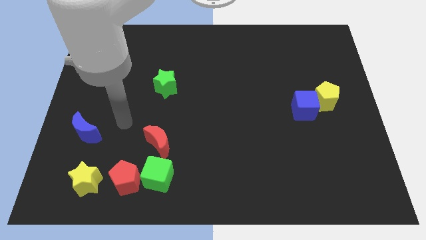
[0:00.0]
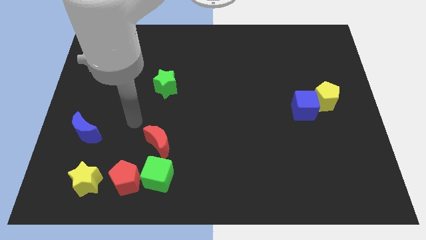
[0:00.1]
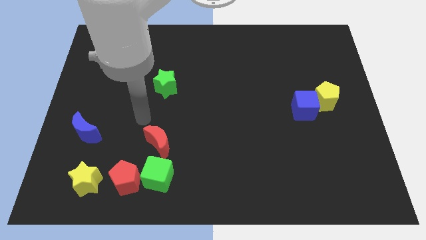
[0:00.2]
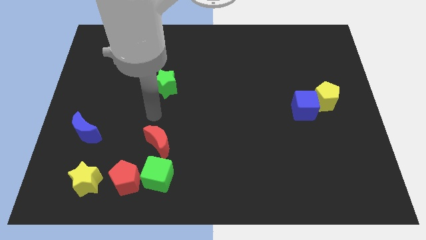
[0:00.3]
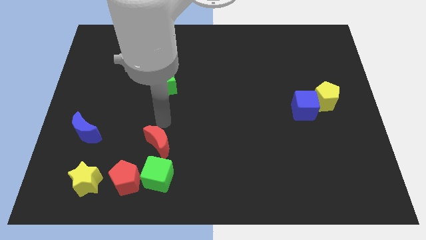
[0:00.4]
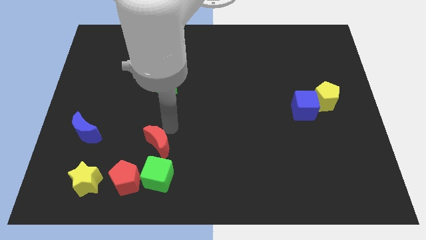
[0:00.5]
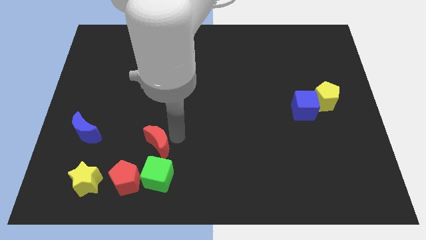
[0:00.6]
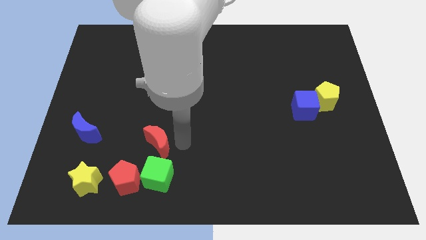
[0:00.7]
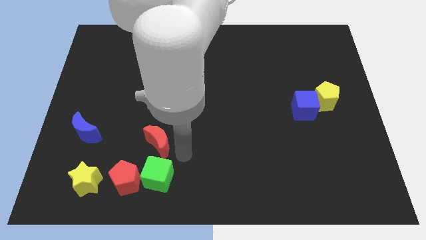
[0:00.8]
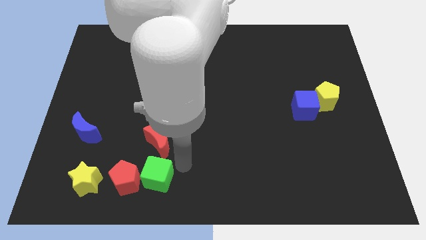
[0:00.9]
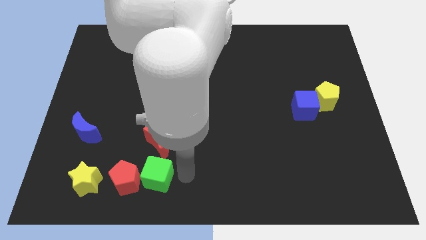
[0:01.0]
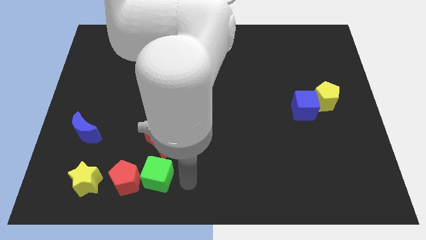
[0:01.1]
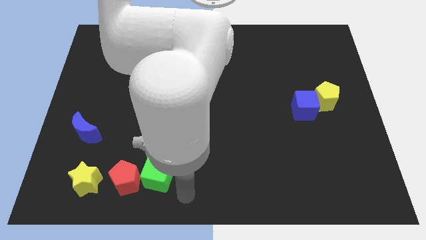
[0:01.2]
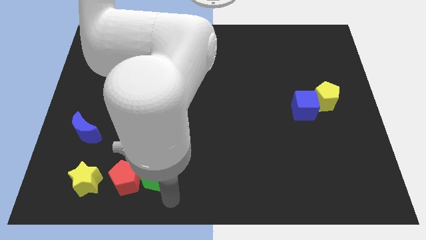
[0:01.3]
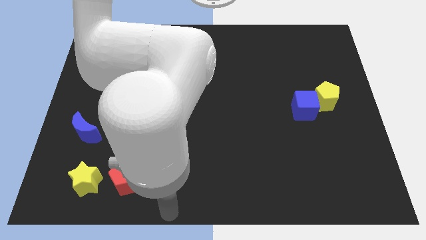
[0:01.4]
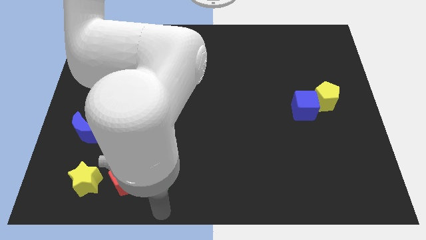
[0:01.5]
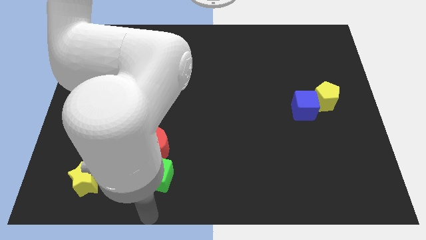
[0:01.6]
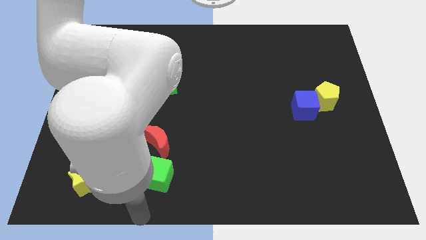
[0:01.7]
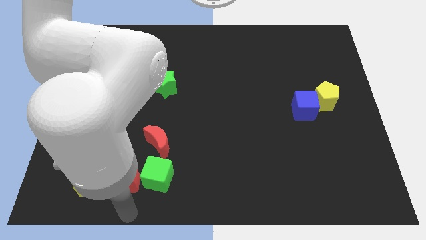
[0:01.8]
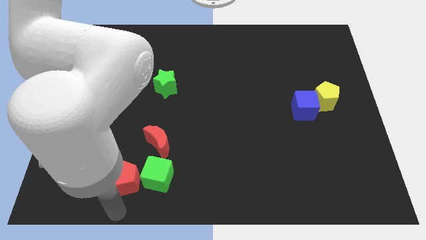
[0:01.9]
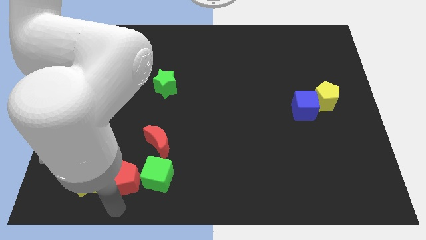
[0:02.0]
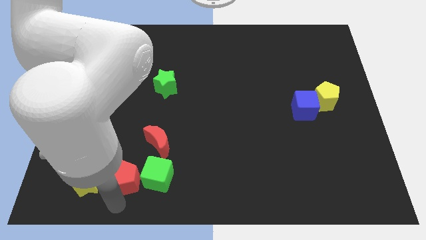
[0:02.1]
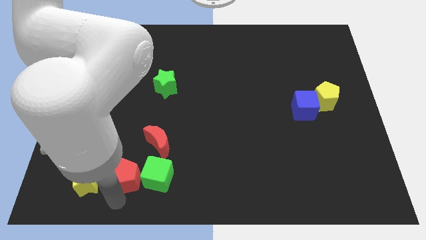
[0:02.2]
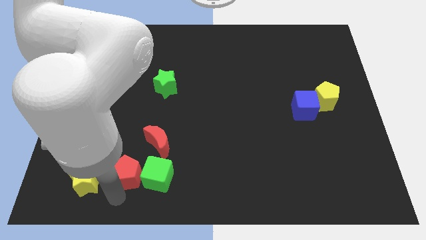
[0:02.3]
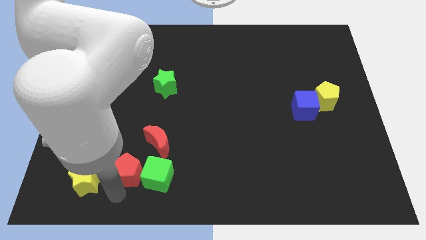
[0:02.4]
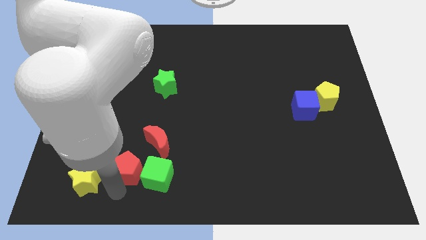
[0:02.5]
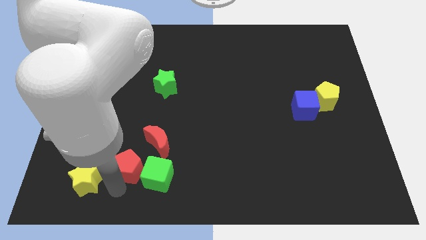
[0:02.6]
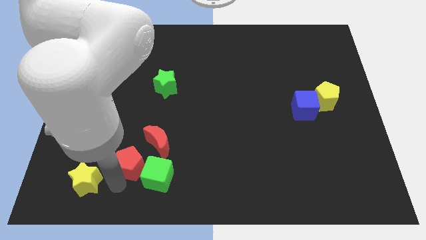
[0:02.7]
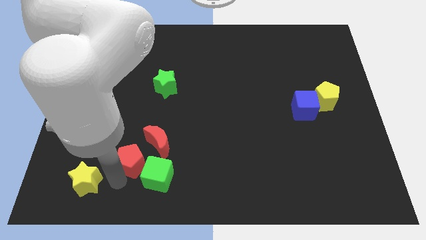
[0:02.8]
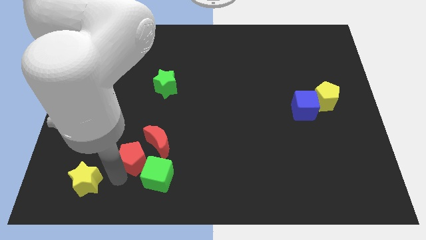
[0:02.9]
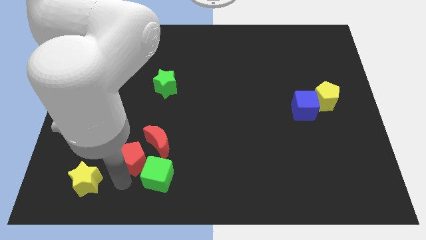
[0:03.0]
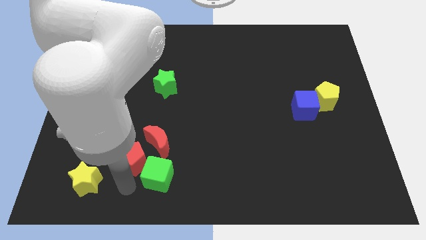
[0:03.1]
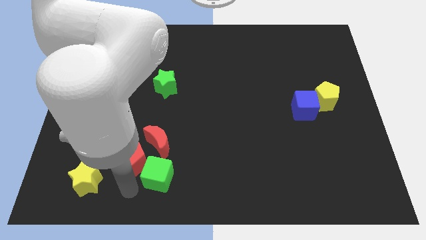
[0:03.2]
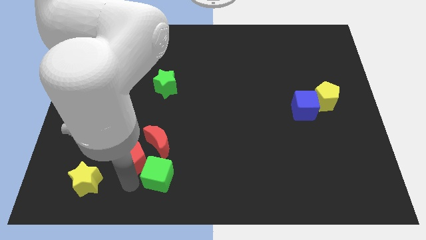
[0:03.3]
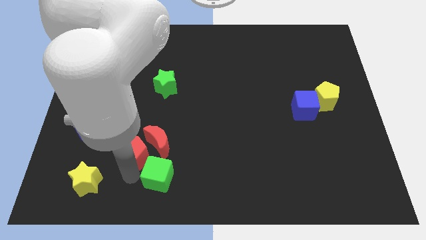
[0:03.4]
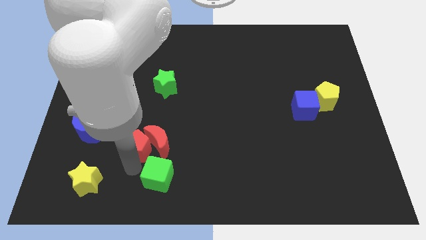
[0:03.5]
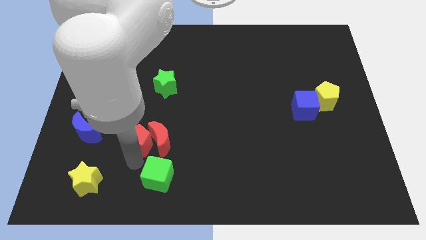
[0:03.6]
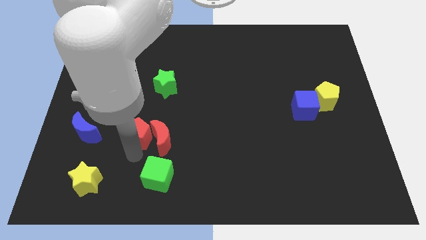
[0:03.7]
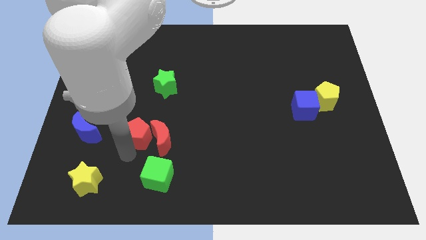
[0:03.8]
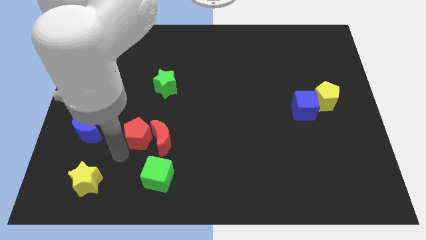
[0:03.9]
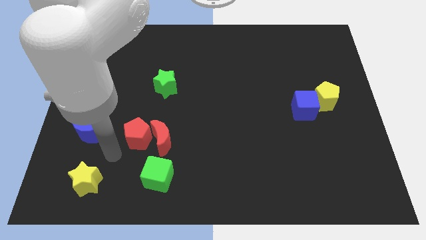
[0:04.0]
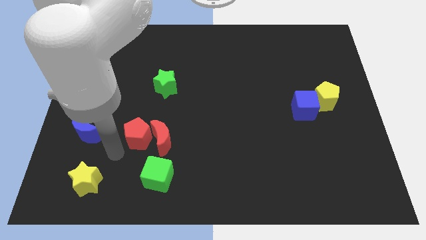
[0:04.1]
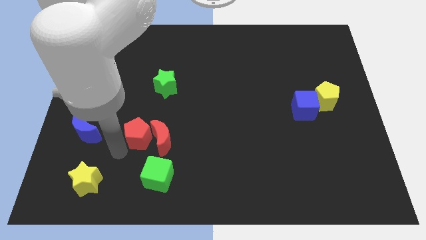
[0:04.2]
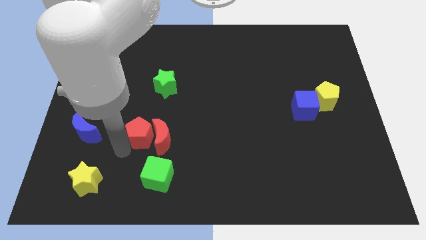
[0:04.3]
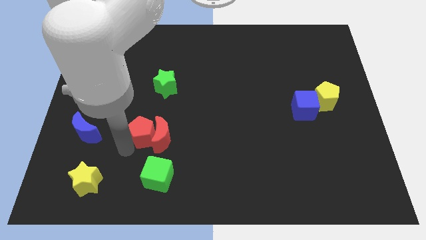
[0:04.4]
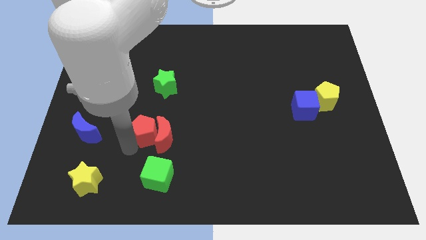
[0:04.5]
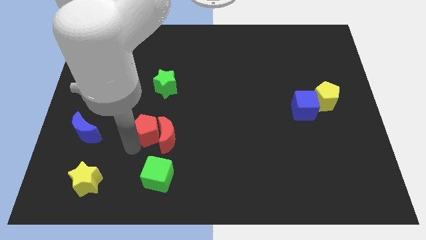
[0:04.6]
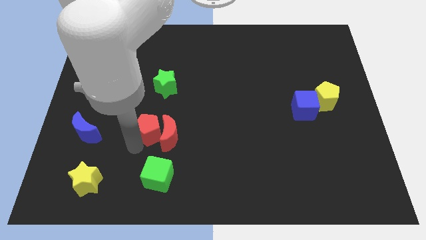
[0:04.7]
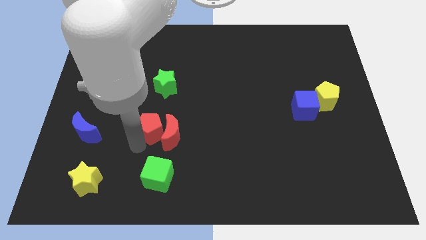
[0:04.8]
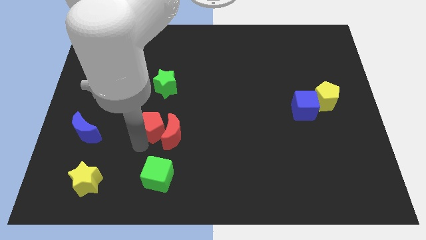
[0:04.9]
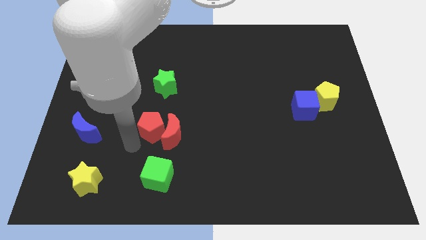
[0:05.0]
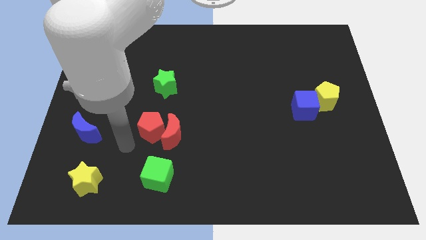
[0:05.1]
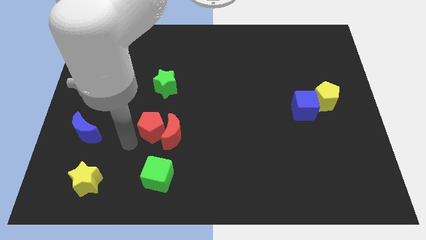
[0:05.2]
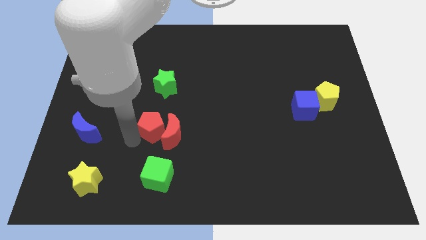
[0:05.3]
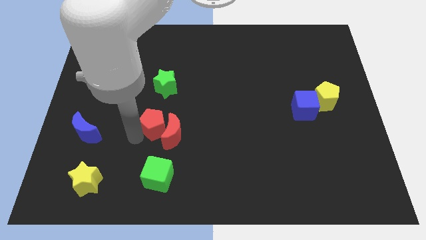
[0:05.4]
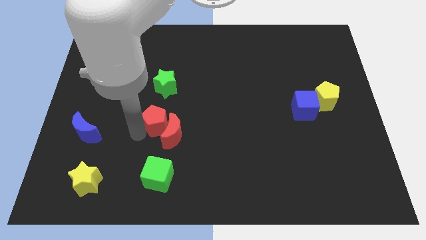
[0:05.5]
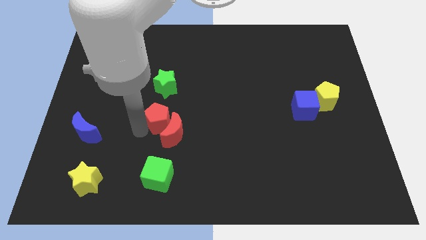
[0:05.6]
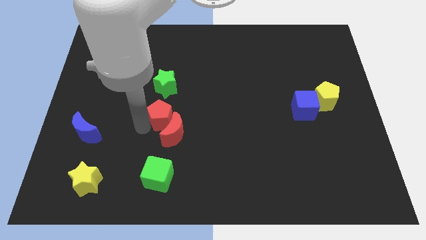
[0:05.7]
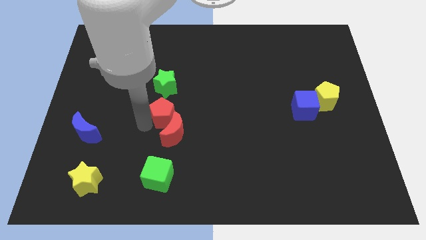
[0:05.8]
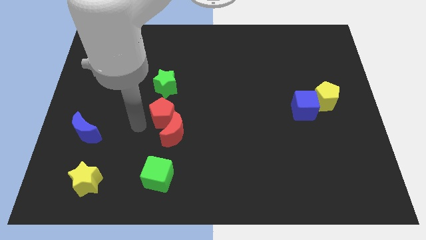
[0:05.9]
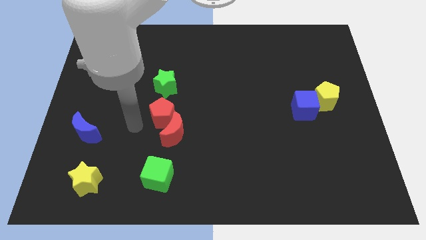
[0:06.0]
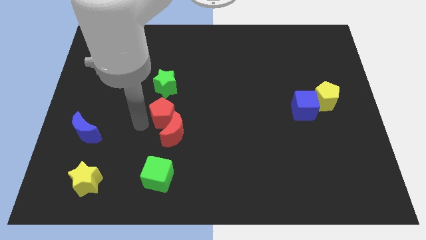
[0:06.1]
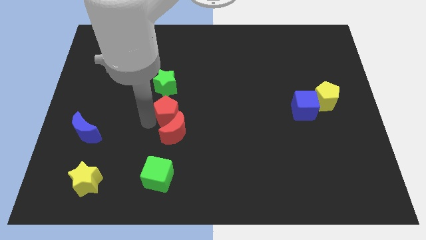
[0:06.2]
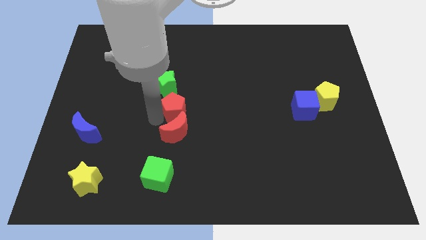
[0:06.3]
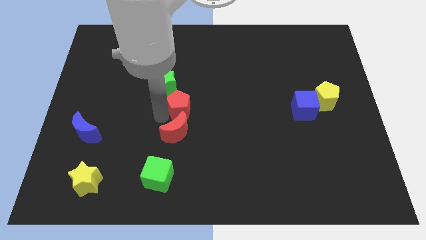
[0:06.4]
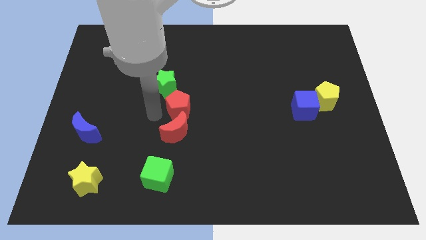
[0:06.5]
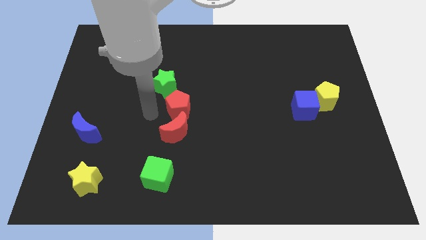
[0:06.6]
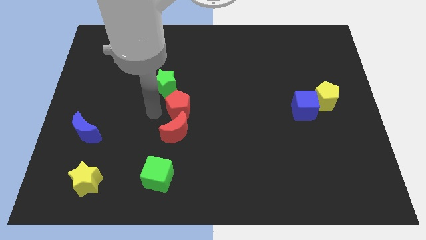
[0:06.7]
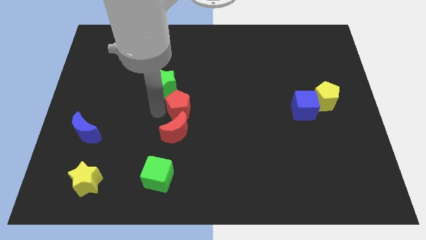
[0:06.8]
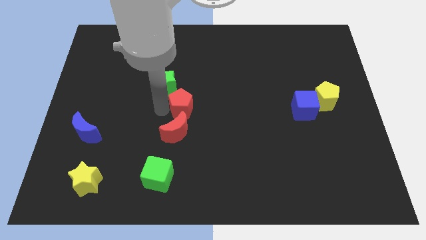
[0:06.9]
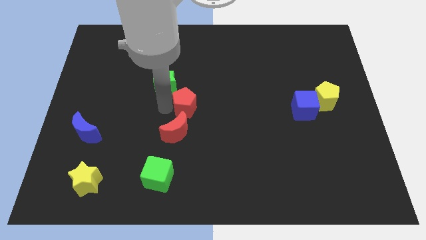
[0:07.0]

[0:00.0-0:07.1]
move the red pentagon upwards and right diagonally

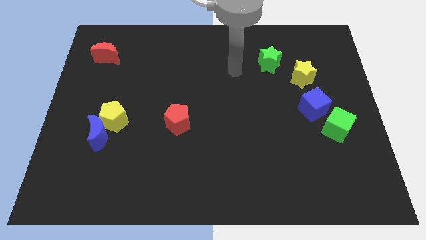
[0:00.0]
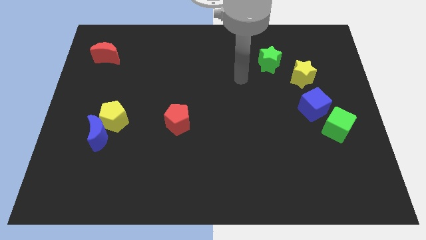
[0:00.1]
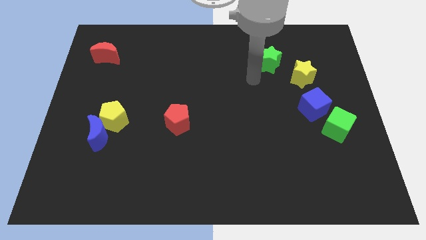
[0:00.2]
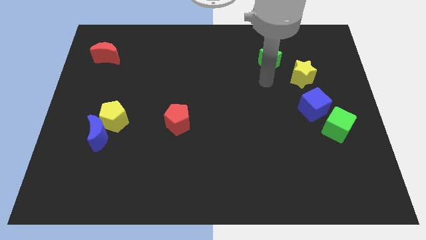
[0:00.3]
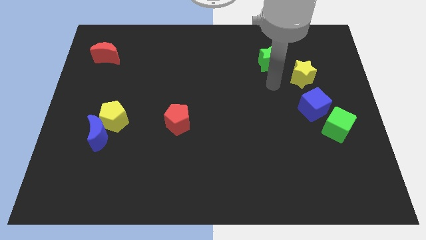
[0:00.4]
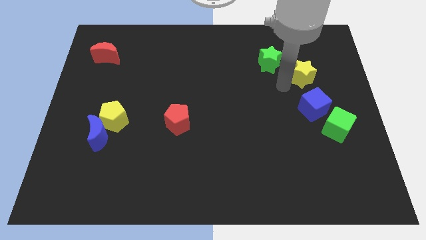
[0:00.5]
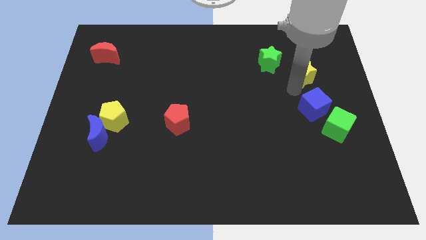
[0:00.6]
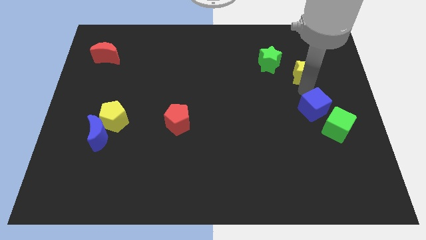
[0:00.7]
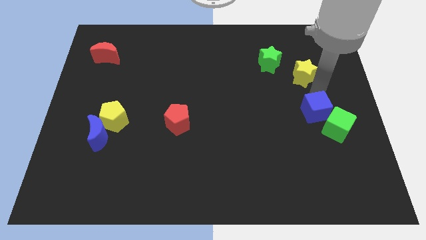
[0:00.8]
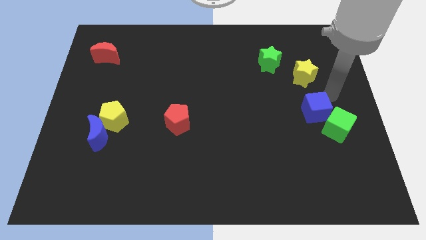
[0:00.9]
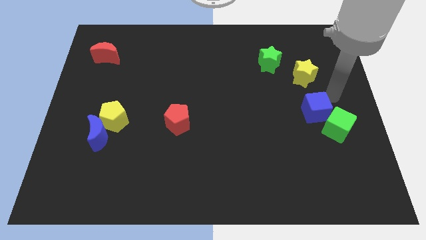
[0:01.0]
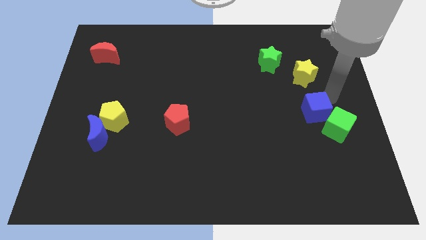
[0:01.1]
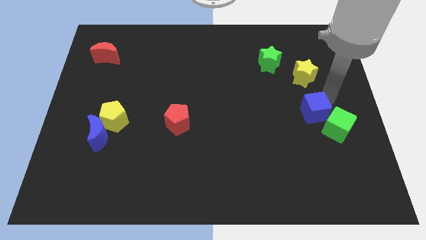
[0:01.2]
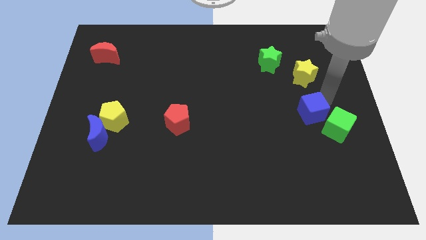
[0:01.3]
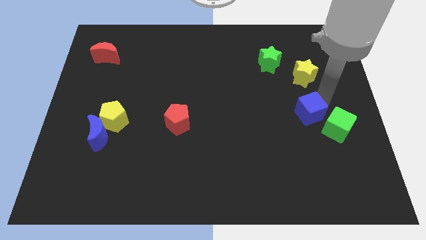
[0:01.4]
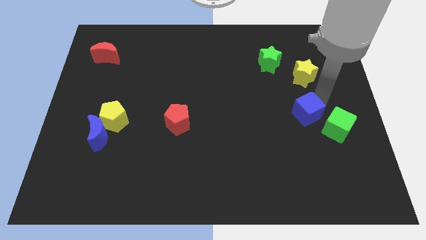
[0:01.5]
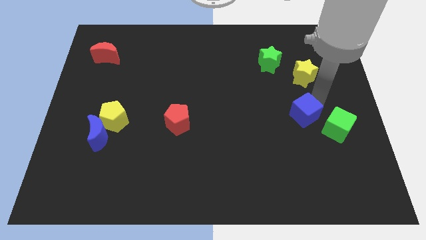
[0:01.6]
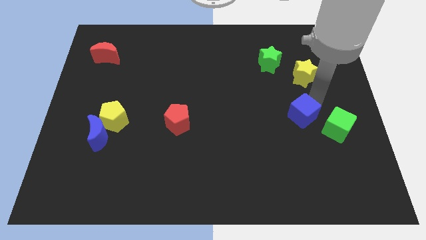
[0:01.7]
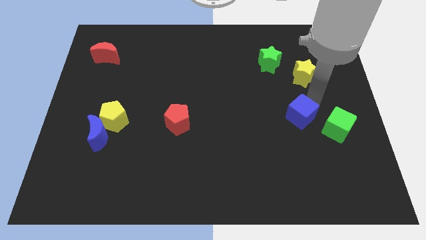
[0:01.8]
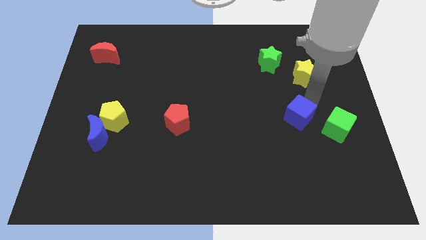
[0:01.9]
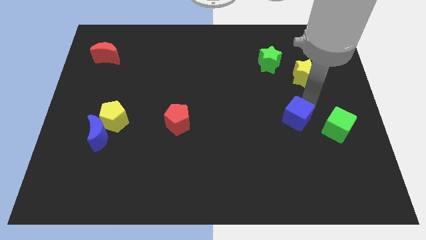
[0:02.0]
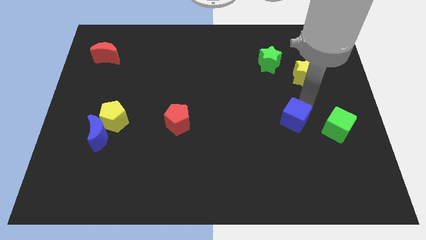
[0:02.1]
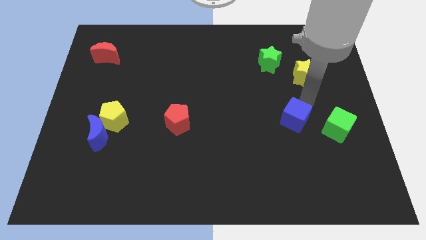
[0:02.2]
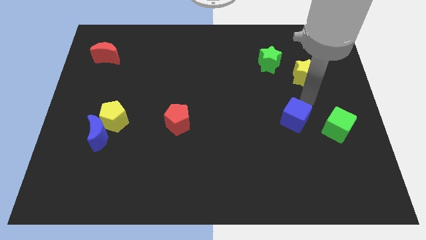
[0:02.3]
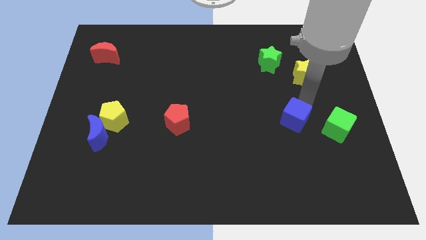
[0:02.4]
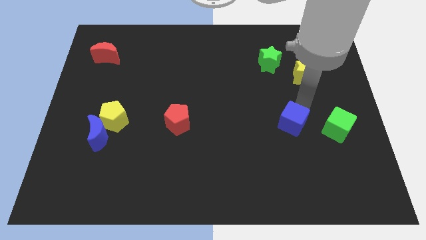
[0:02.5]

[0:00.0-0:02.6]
push the blue cube diagonally downwards and to the left a bit
